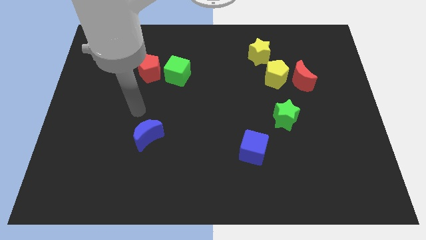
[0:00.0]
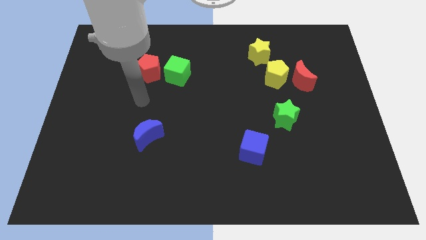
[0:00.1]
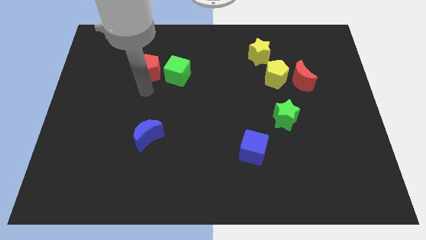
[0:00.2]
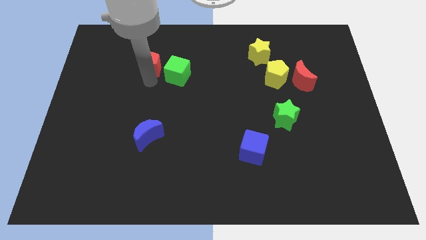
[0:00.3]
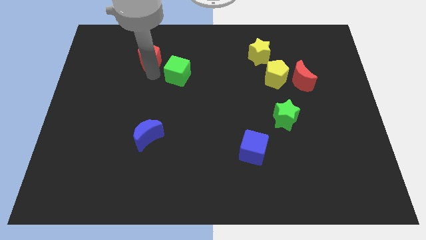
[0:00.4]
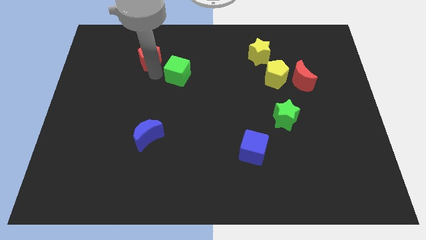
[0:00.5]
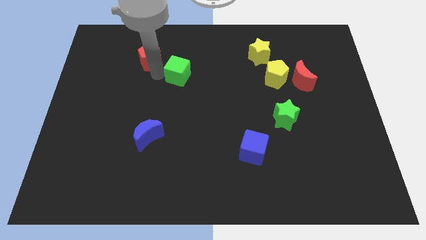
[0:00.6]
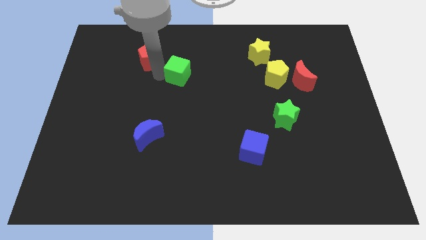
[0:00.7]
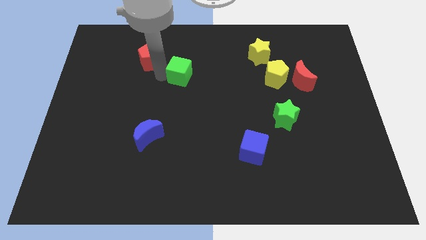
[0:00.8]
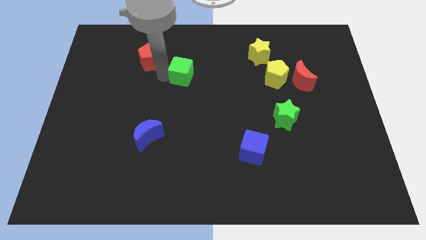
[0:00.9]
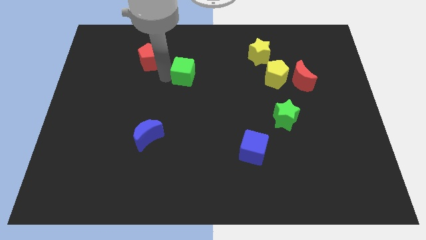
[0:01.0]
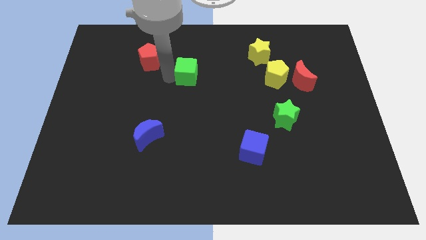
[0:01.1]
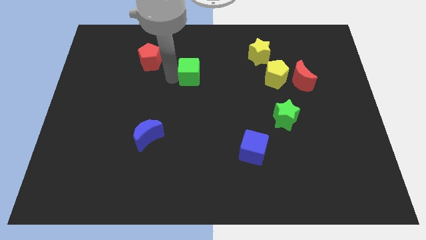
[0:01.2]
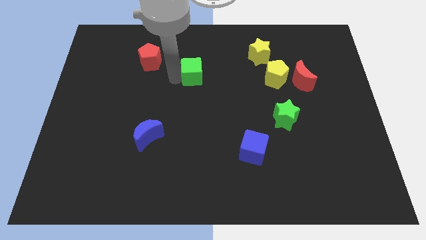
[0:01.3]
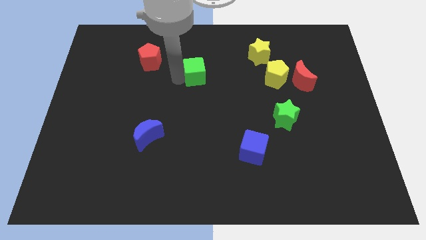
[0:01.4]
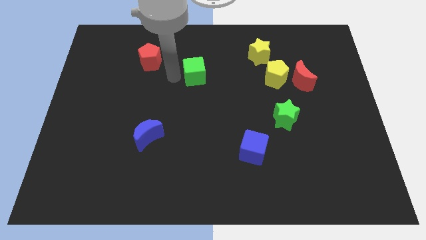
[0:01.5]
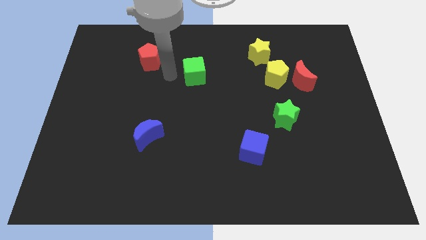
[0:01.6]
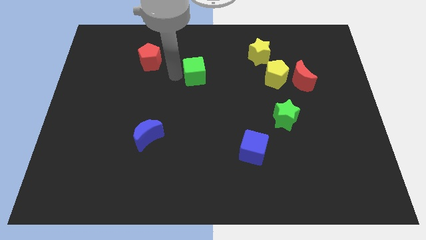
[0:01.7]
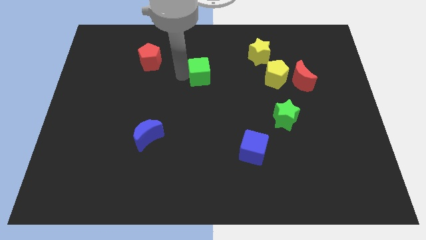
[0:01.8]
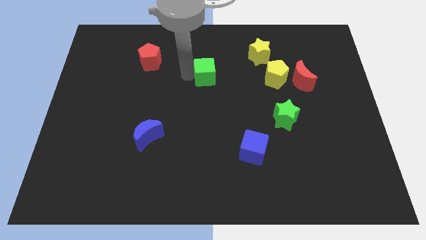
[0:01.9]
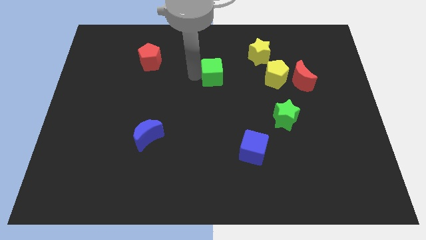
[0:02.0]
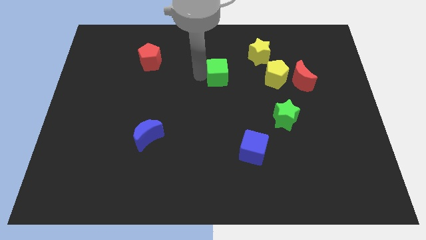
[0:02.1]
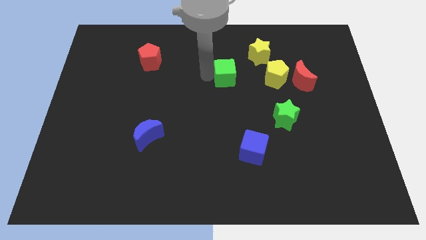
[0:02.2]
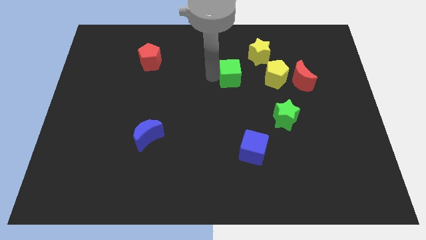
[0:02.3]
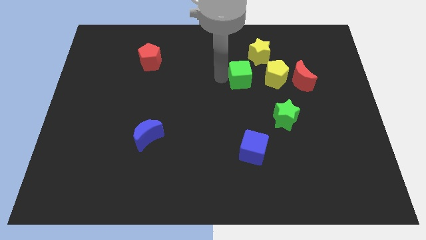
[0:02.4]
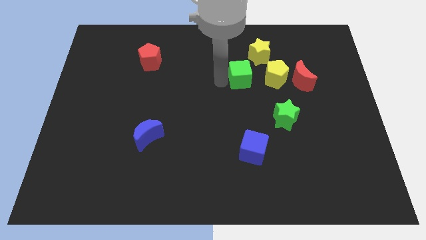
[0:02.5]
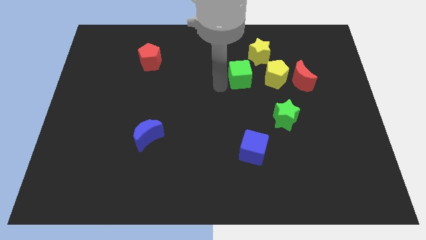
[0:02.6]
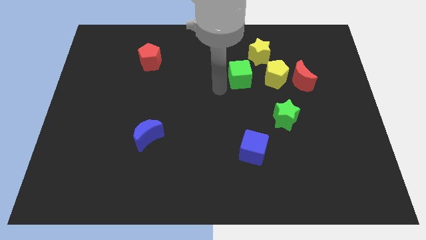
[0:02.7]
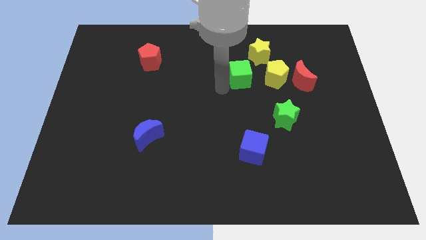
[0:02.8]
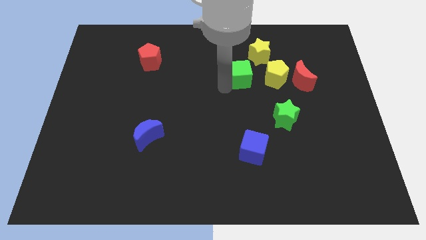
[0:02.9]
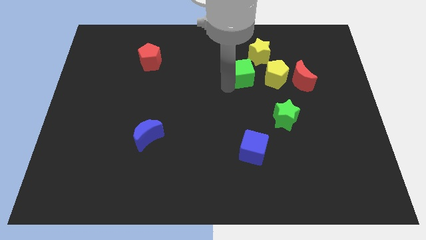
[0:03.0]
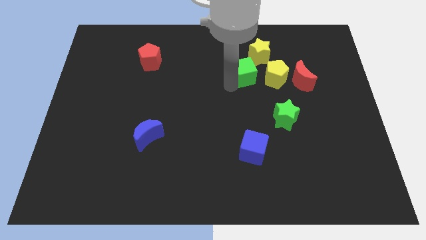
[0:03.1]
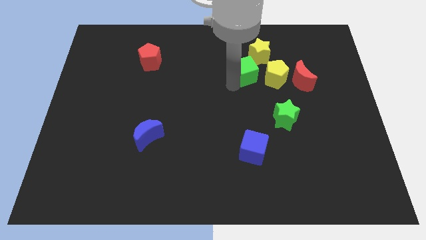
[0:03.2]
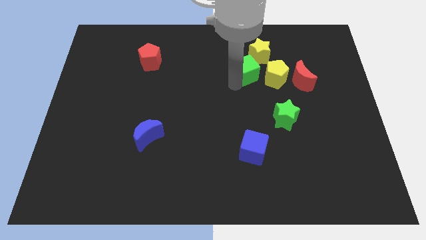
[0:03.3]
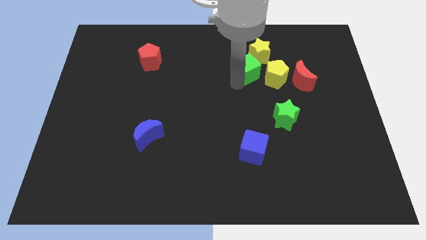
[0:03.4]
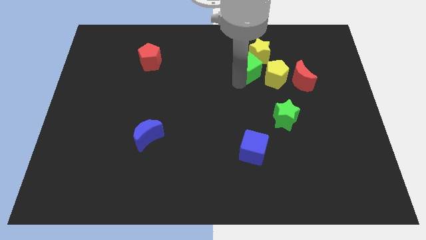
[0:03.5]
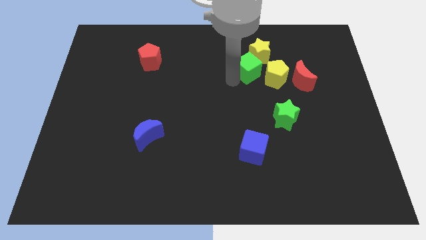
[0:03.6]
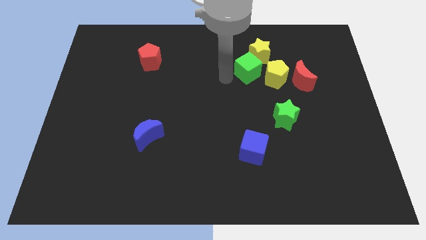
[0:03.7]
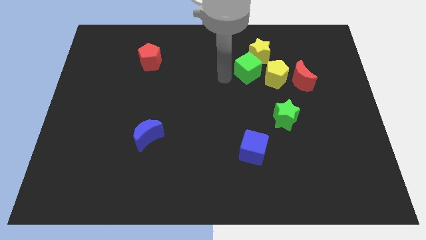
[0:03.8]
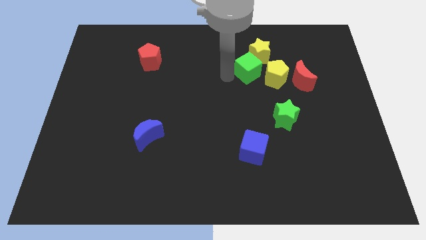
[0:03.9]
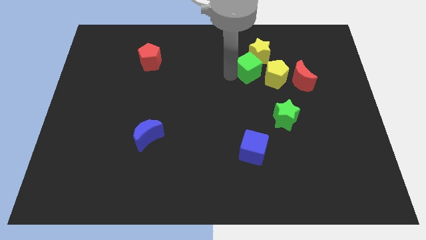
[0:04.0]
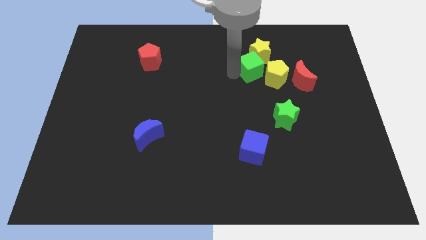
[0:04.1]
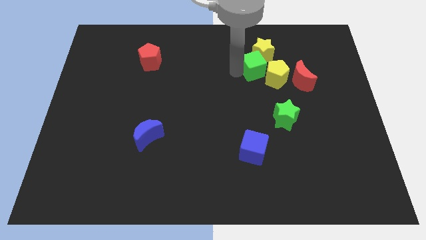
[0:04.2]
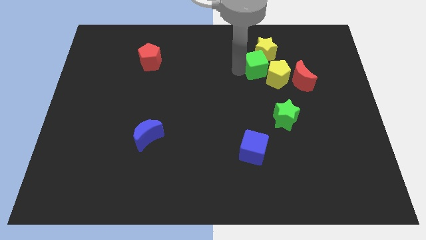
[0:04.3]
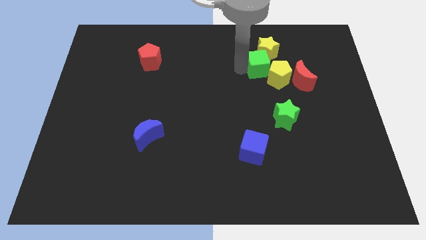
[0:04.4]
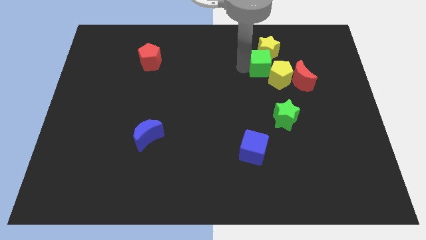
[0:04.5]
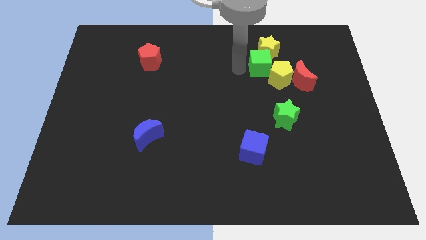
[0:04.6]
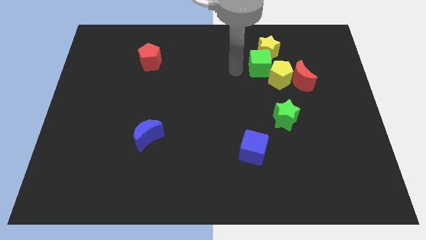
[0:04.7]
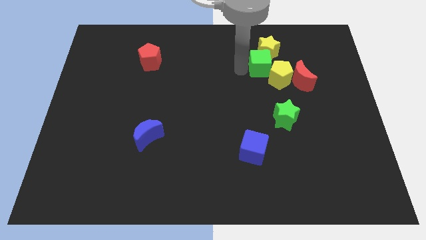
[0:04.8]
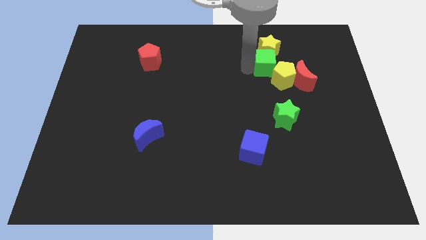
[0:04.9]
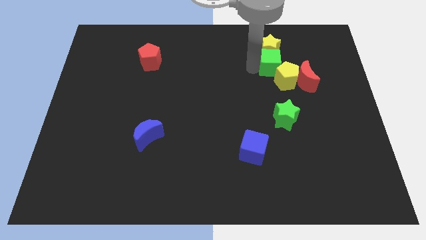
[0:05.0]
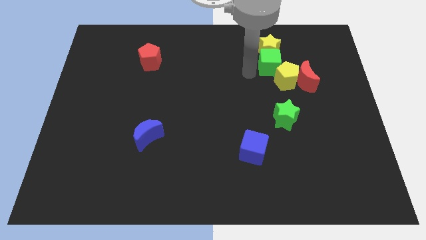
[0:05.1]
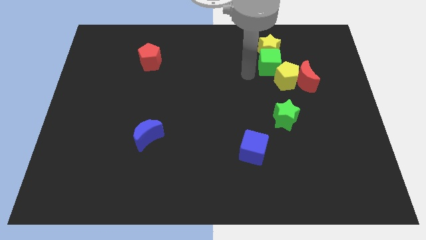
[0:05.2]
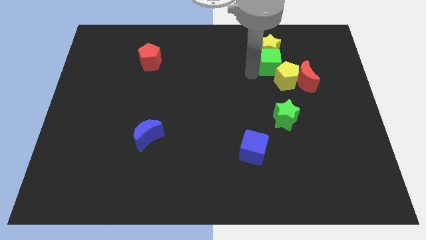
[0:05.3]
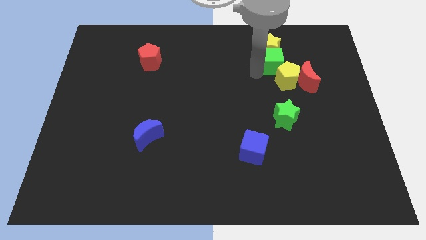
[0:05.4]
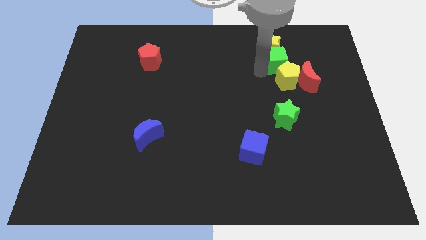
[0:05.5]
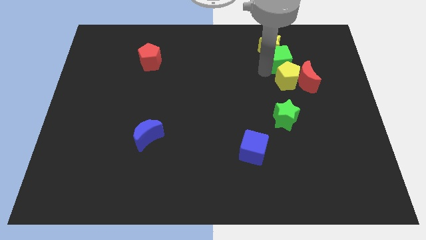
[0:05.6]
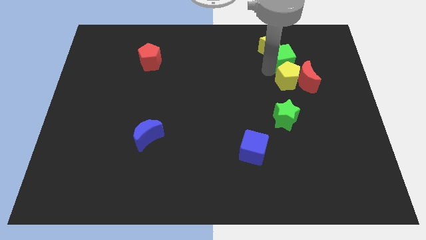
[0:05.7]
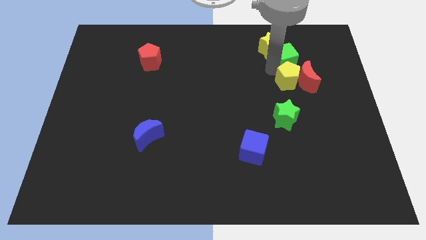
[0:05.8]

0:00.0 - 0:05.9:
slide the green cube to the right of the yellow star

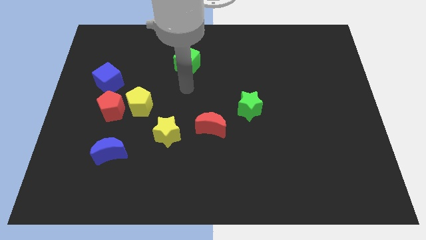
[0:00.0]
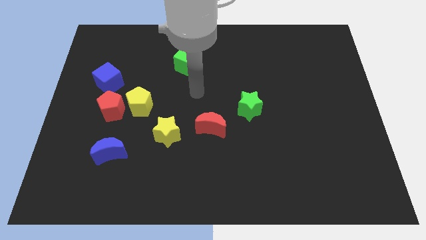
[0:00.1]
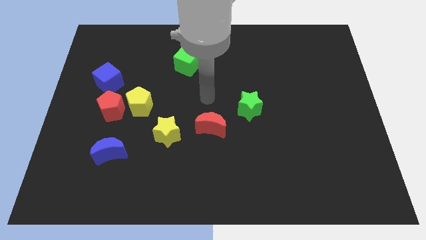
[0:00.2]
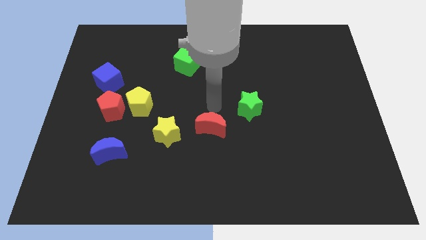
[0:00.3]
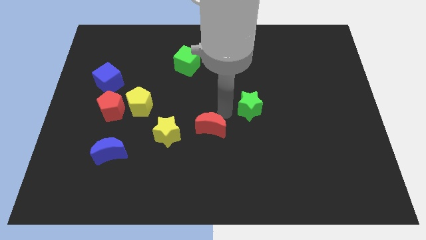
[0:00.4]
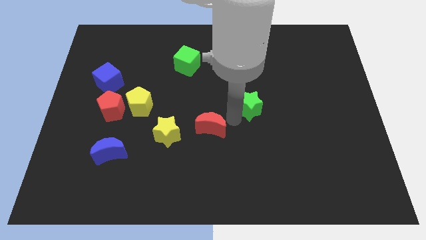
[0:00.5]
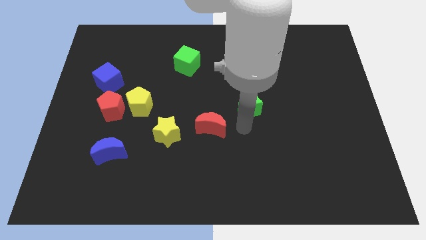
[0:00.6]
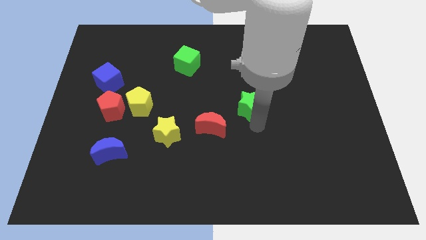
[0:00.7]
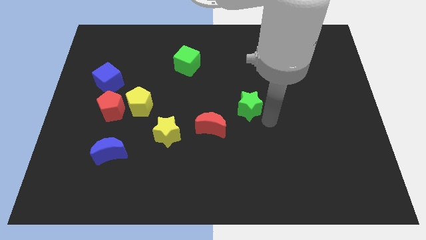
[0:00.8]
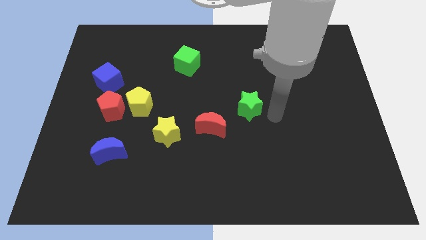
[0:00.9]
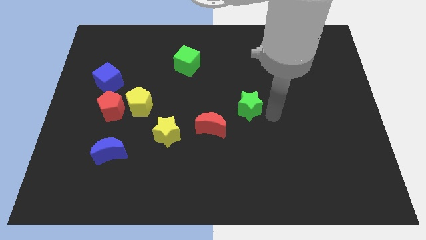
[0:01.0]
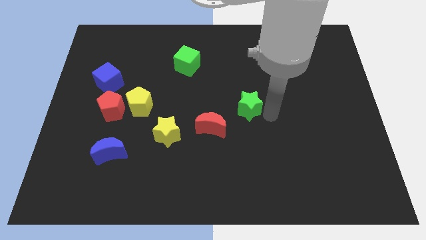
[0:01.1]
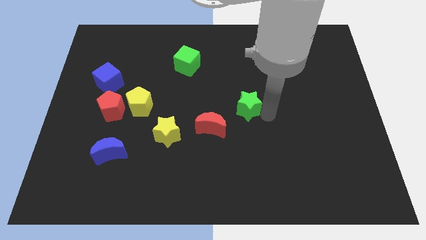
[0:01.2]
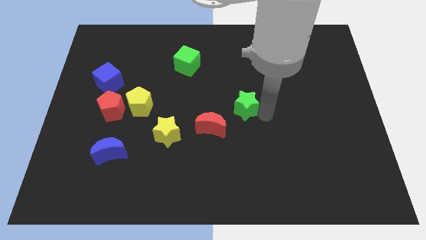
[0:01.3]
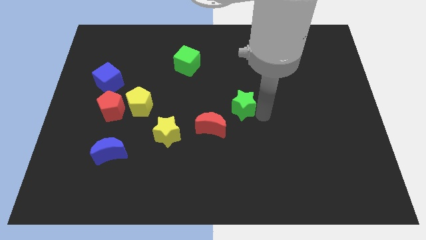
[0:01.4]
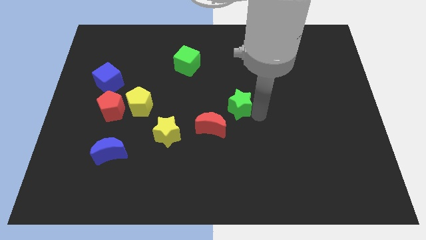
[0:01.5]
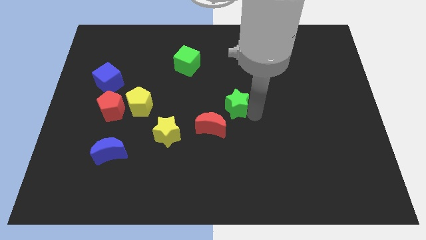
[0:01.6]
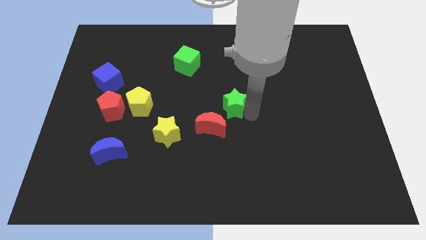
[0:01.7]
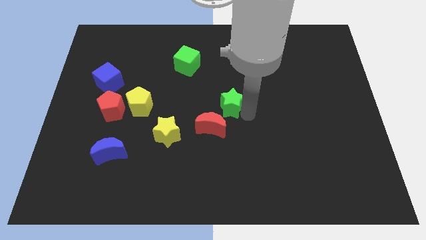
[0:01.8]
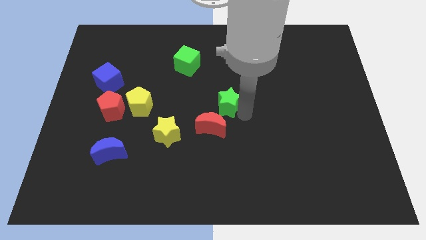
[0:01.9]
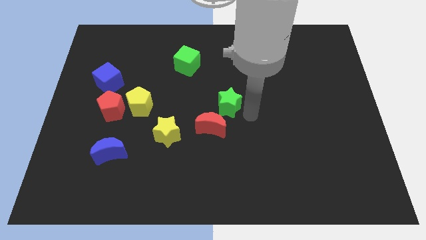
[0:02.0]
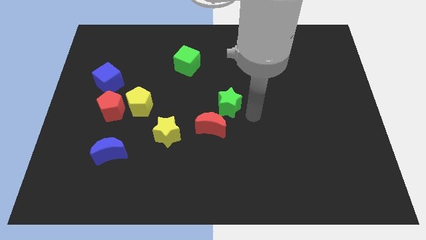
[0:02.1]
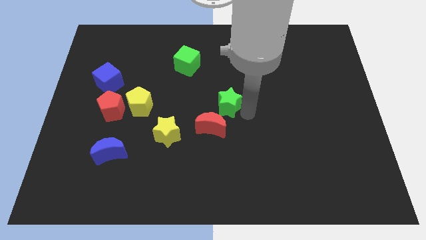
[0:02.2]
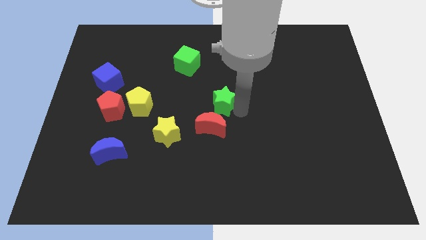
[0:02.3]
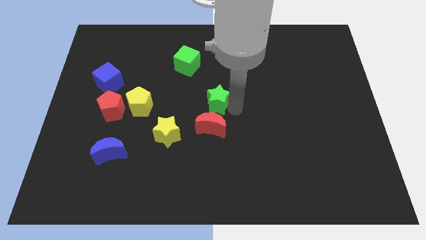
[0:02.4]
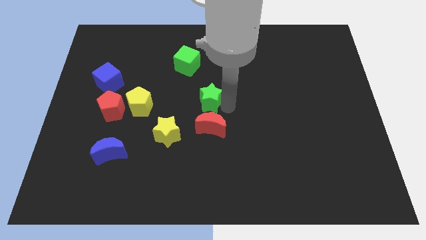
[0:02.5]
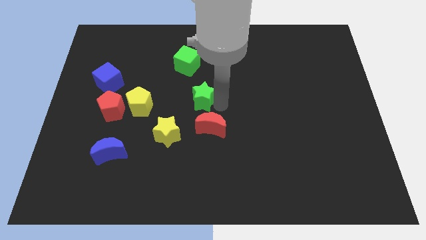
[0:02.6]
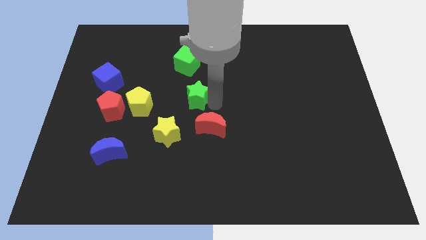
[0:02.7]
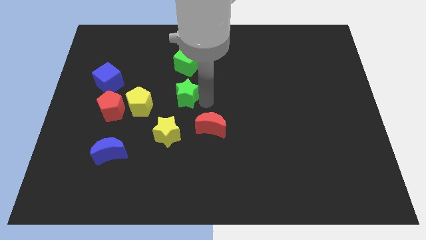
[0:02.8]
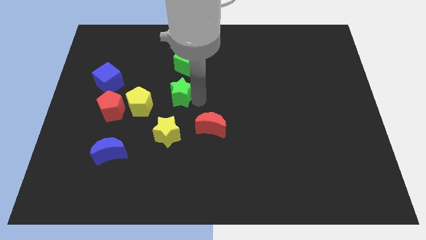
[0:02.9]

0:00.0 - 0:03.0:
slide the green star to the top right side of the yellow pentagon
